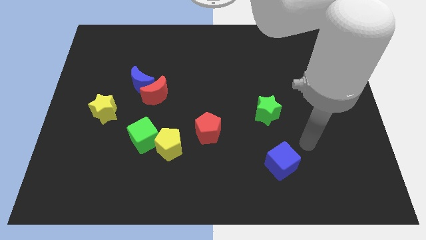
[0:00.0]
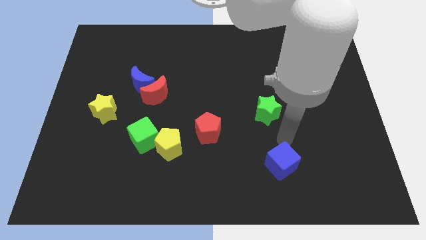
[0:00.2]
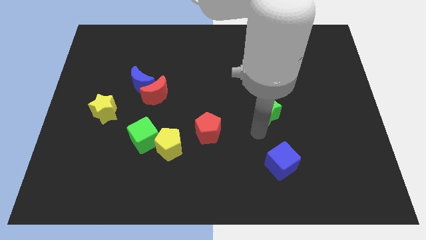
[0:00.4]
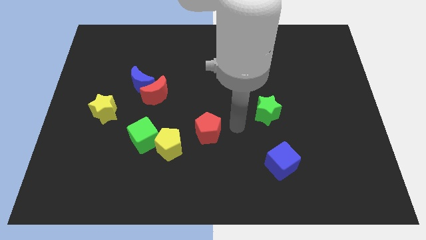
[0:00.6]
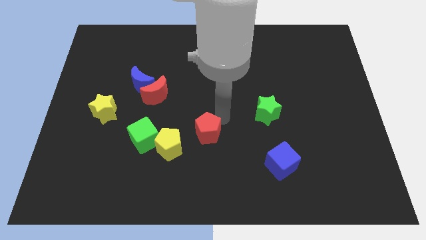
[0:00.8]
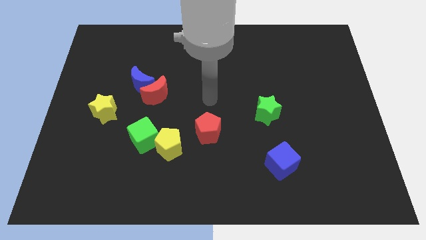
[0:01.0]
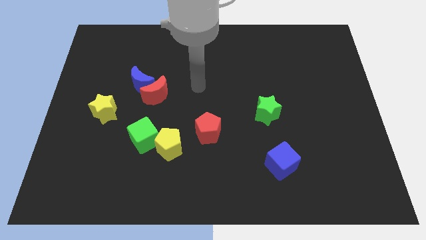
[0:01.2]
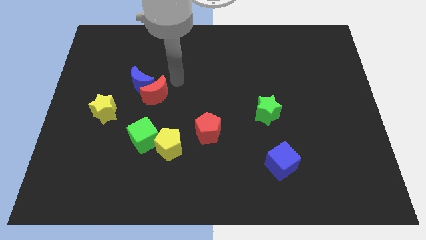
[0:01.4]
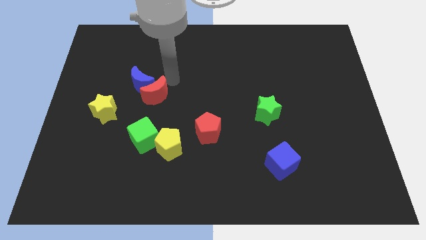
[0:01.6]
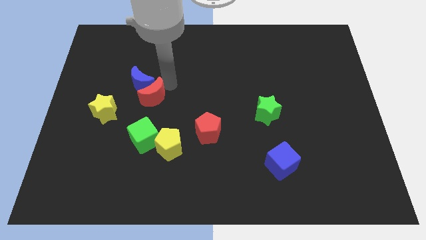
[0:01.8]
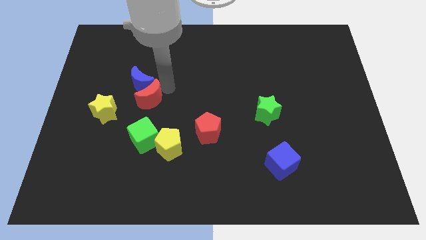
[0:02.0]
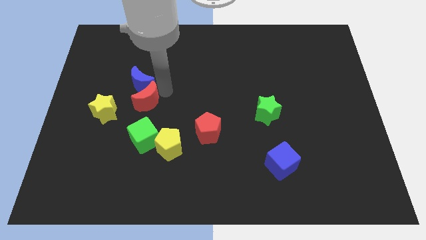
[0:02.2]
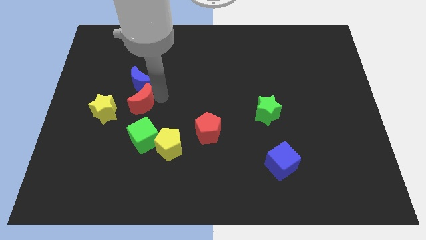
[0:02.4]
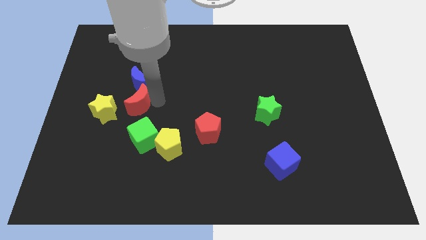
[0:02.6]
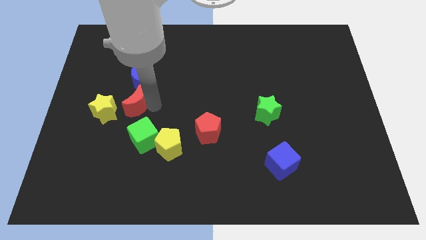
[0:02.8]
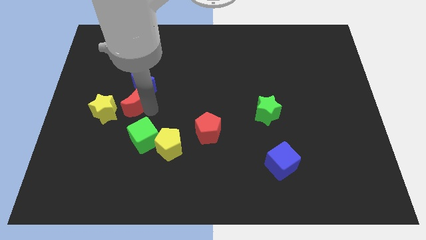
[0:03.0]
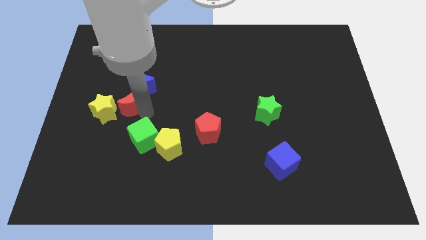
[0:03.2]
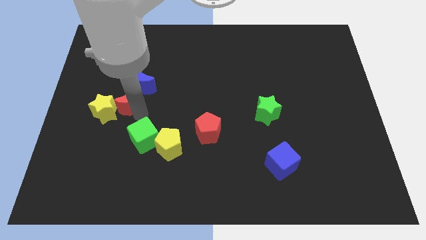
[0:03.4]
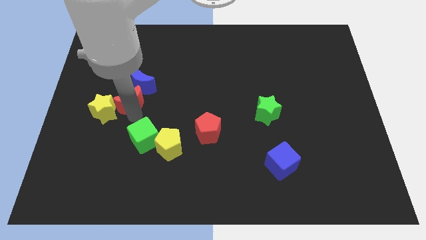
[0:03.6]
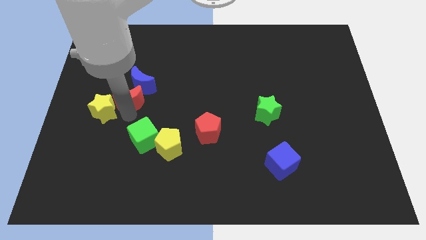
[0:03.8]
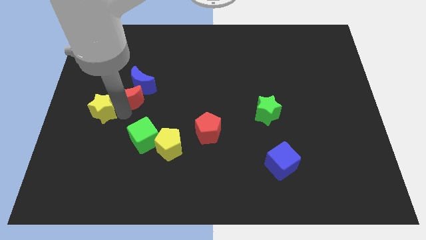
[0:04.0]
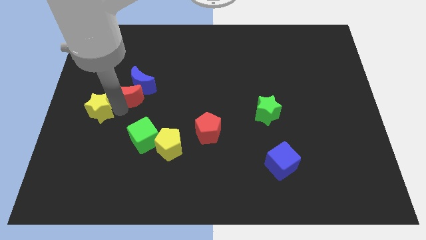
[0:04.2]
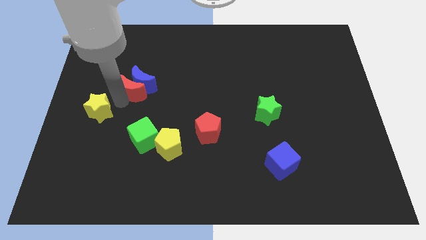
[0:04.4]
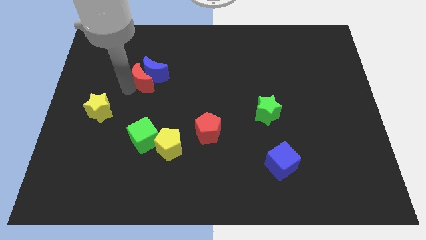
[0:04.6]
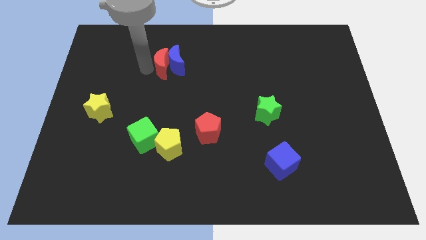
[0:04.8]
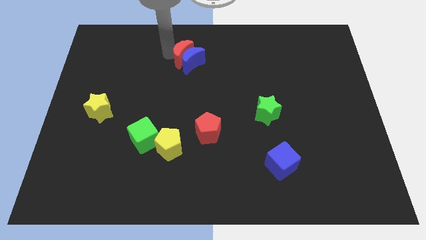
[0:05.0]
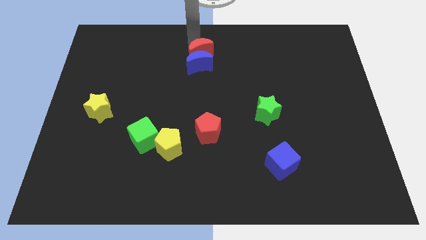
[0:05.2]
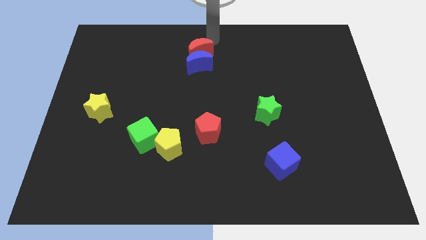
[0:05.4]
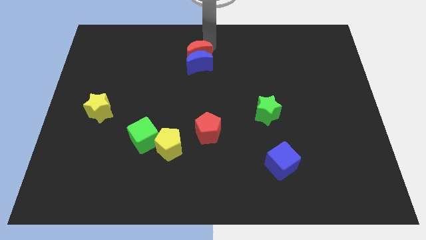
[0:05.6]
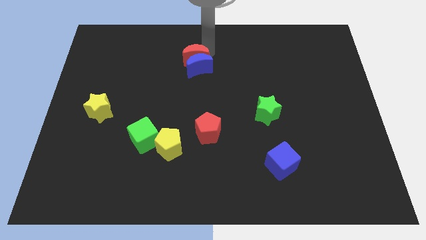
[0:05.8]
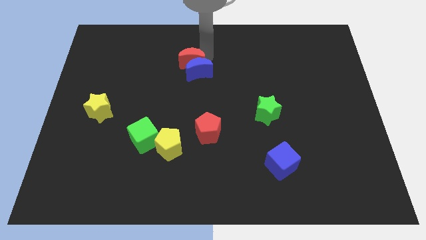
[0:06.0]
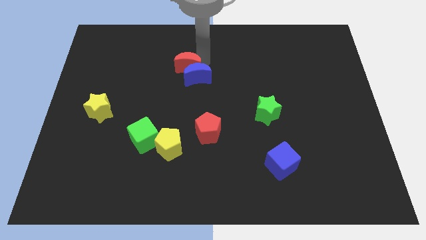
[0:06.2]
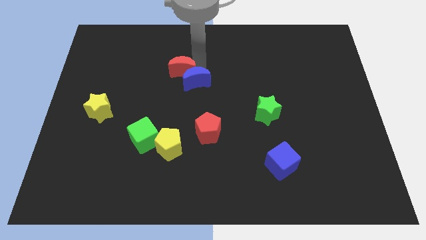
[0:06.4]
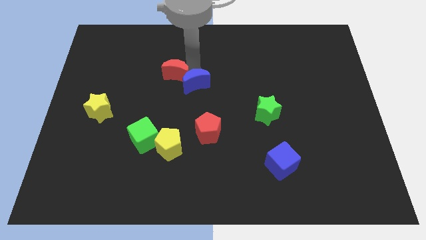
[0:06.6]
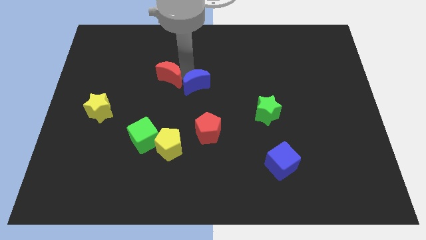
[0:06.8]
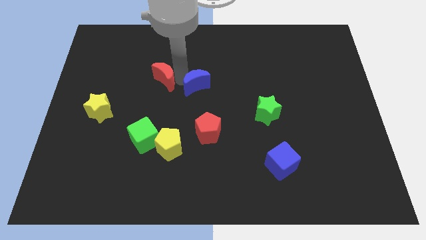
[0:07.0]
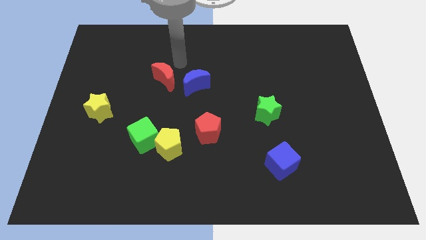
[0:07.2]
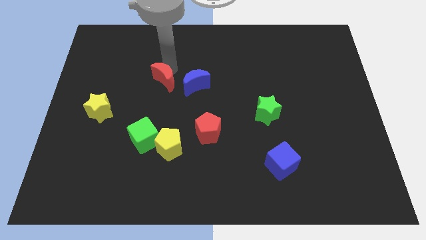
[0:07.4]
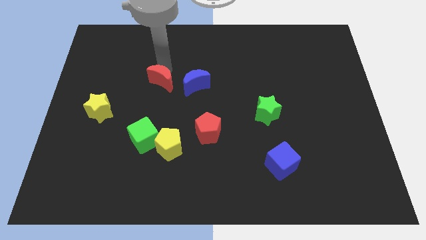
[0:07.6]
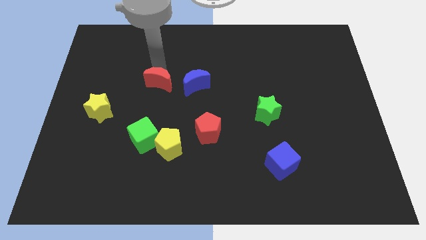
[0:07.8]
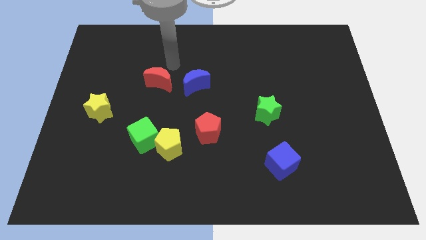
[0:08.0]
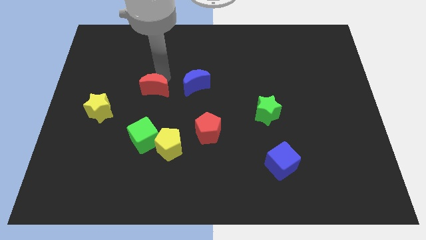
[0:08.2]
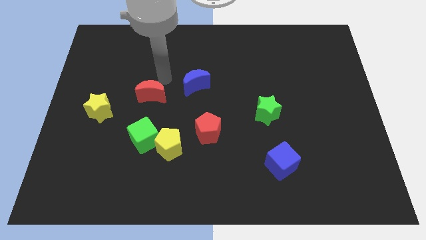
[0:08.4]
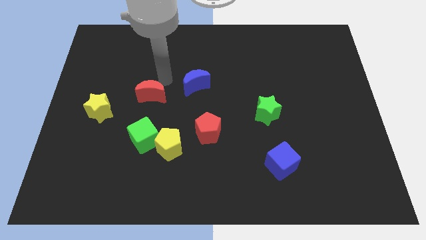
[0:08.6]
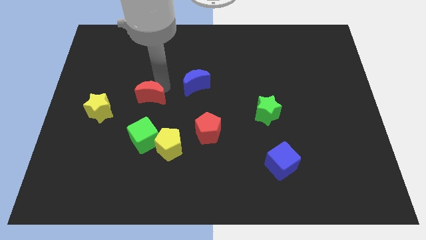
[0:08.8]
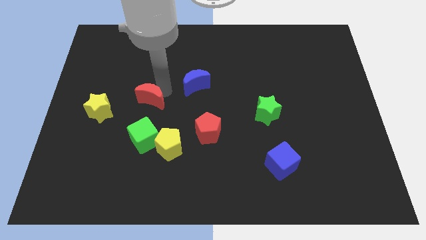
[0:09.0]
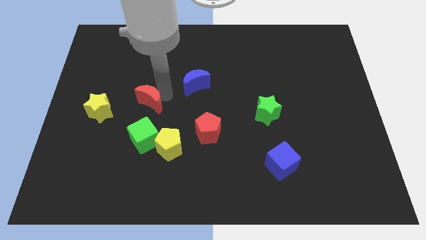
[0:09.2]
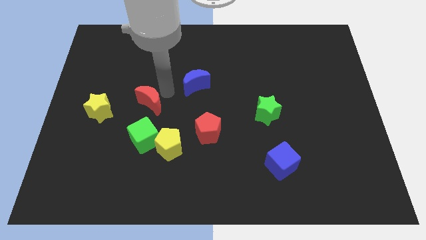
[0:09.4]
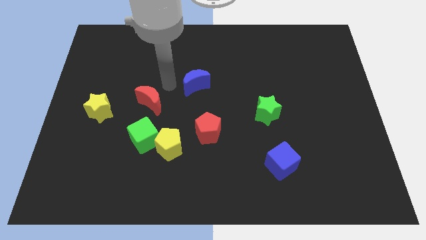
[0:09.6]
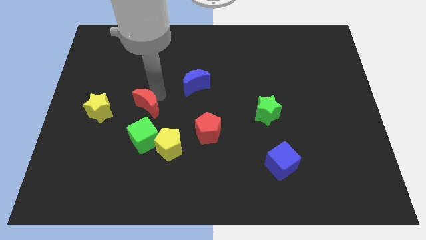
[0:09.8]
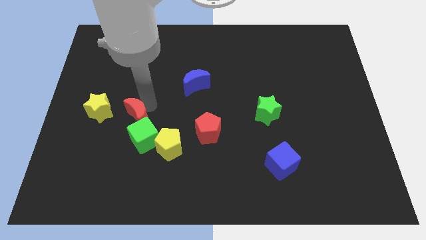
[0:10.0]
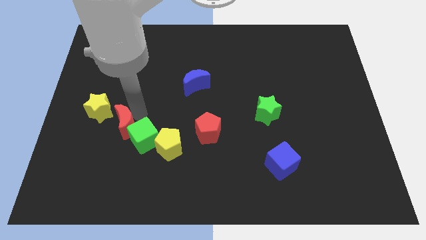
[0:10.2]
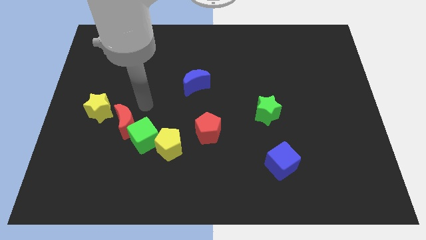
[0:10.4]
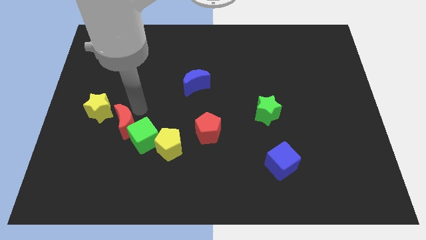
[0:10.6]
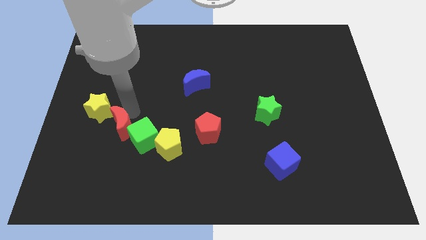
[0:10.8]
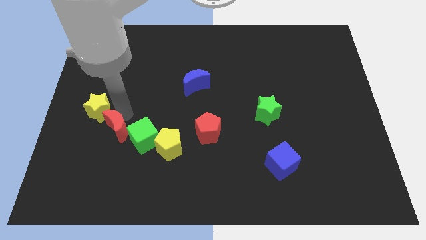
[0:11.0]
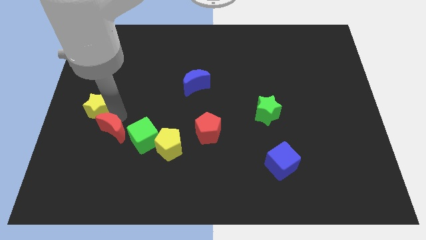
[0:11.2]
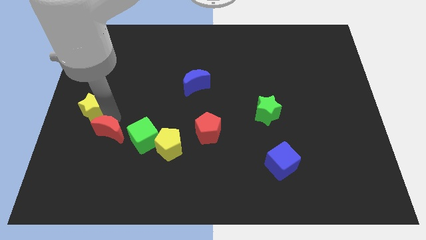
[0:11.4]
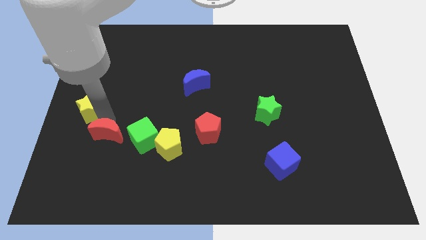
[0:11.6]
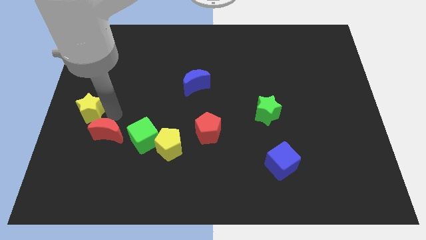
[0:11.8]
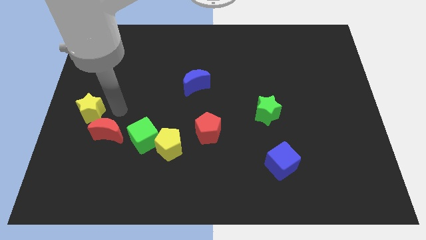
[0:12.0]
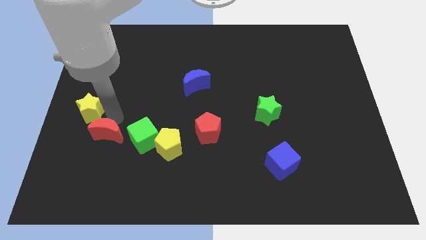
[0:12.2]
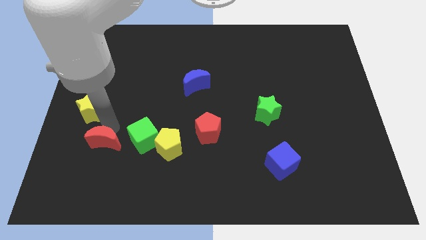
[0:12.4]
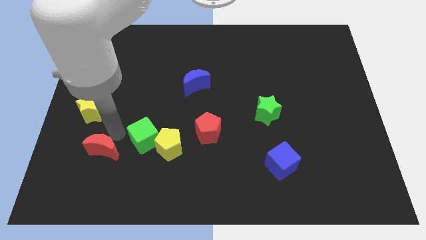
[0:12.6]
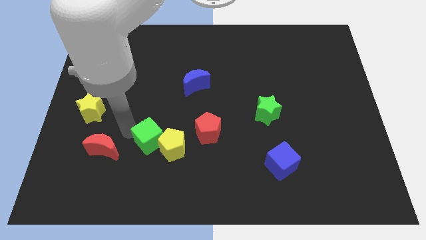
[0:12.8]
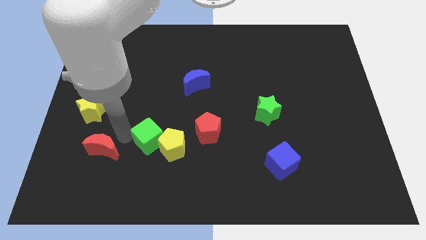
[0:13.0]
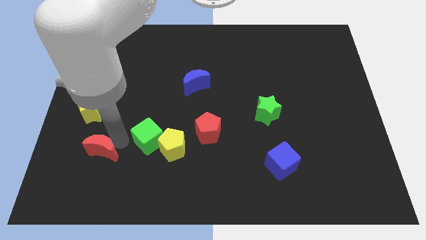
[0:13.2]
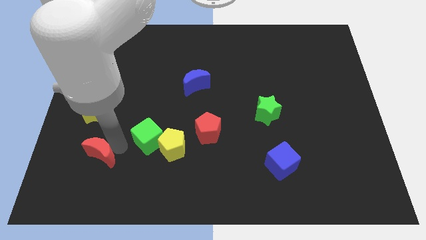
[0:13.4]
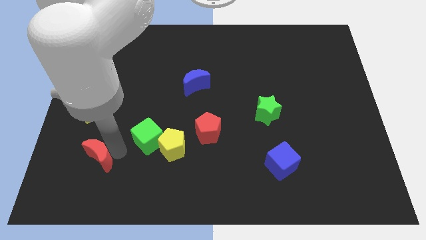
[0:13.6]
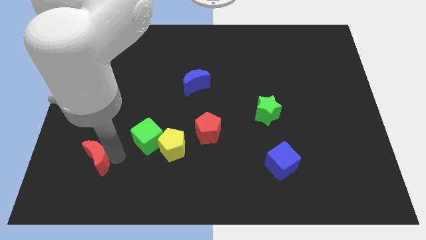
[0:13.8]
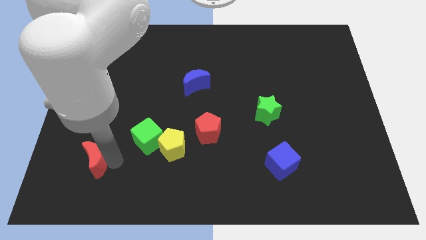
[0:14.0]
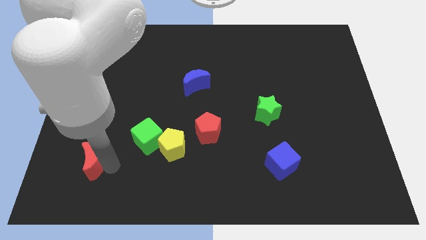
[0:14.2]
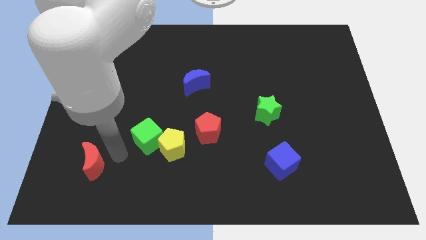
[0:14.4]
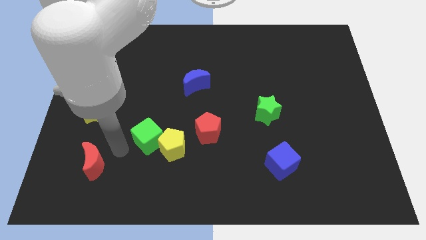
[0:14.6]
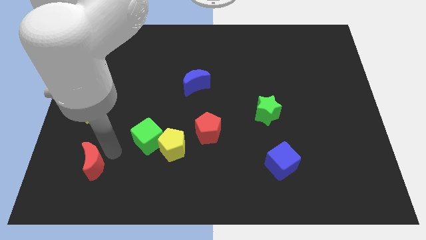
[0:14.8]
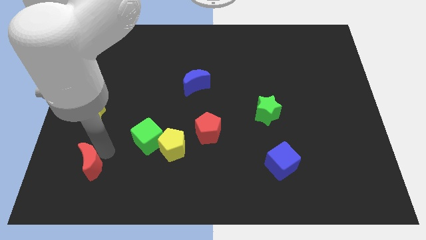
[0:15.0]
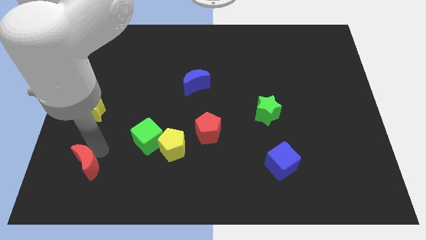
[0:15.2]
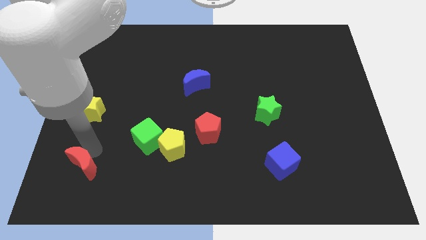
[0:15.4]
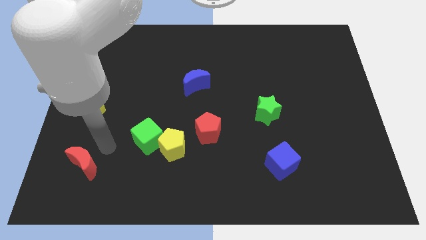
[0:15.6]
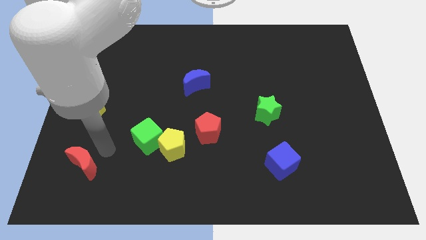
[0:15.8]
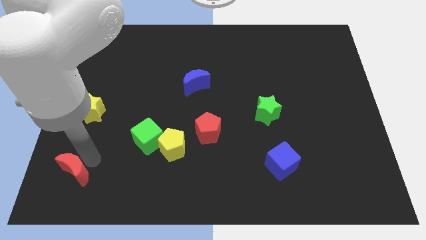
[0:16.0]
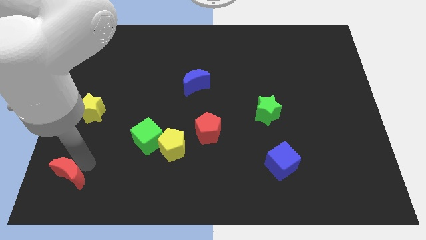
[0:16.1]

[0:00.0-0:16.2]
put the red moon to the bottom left
